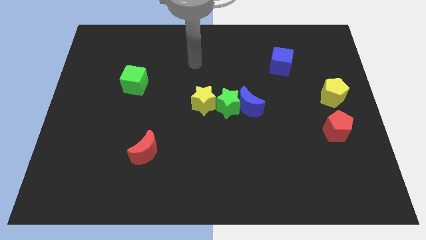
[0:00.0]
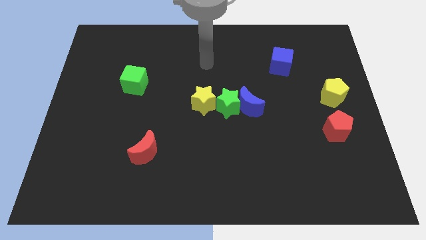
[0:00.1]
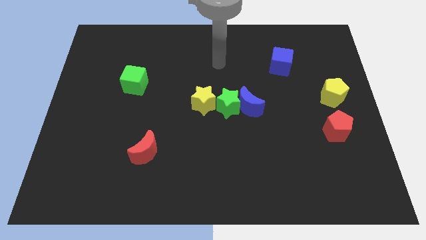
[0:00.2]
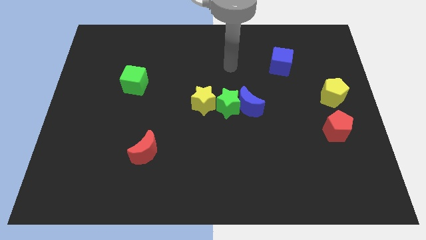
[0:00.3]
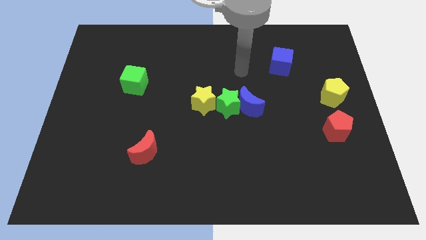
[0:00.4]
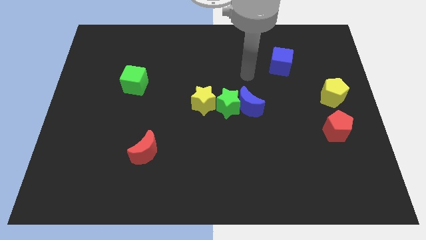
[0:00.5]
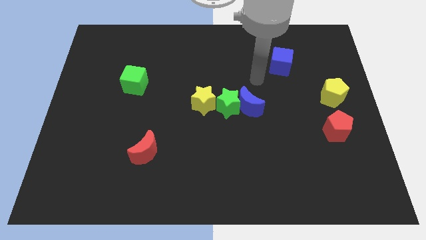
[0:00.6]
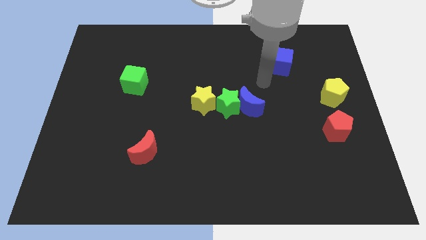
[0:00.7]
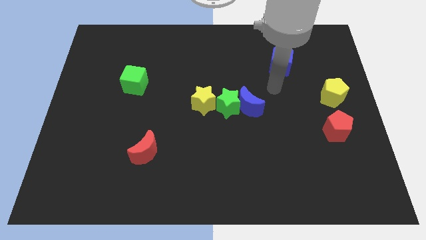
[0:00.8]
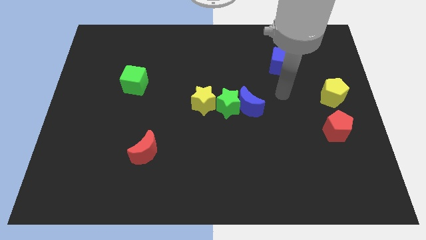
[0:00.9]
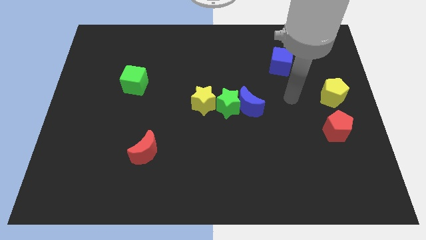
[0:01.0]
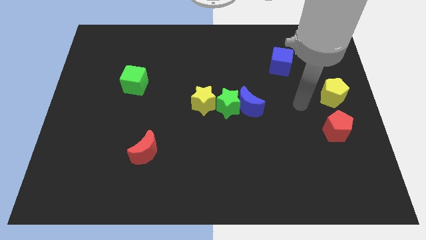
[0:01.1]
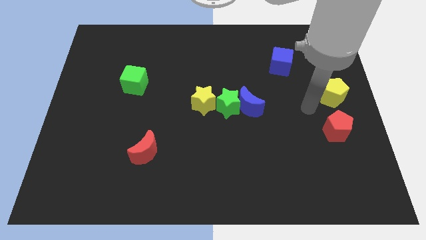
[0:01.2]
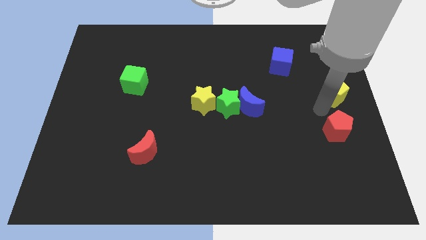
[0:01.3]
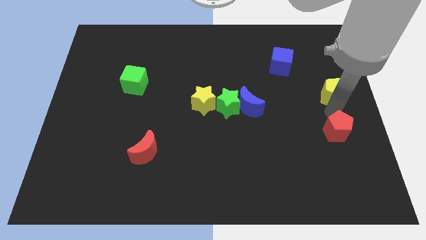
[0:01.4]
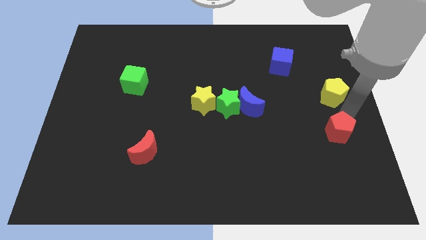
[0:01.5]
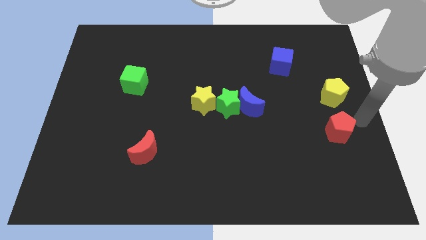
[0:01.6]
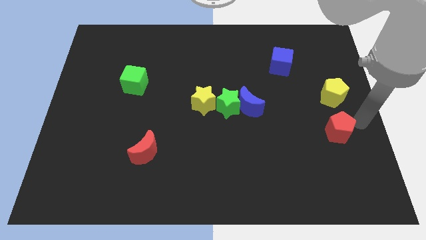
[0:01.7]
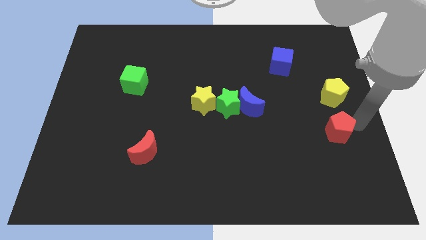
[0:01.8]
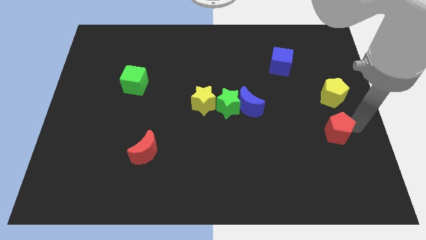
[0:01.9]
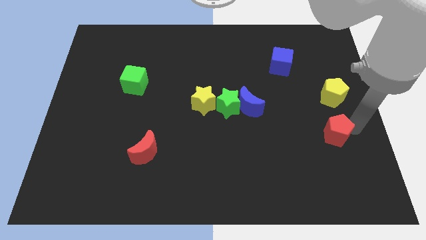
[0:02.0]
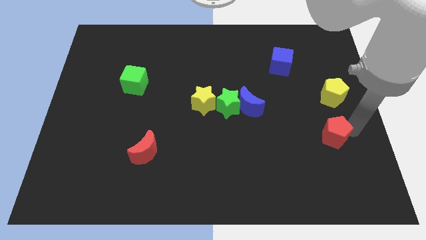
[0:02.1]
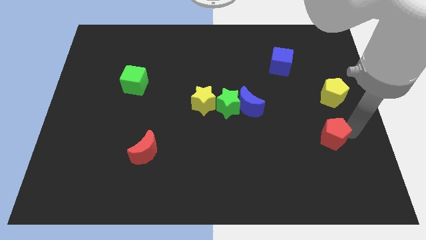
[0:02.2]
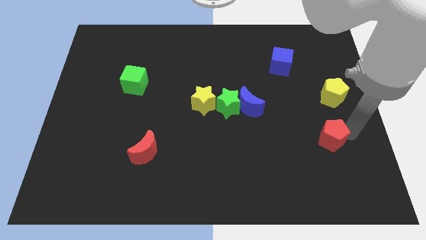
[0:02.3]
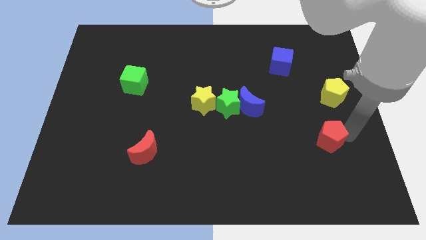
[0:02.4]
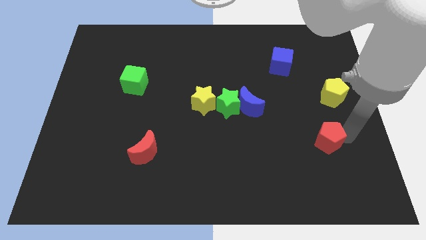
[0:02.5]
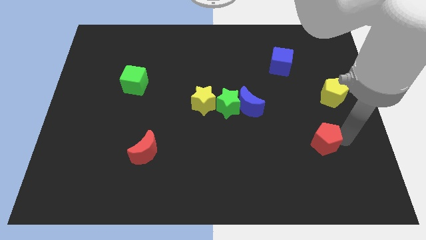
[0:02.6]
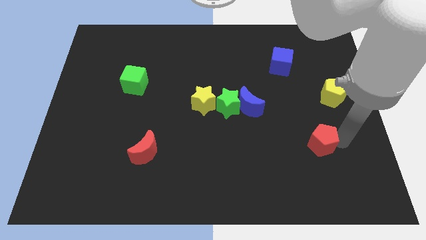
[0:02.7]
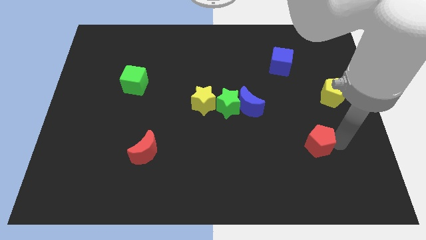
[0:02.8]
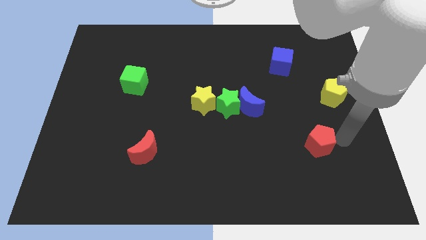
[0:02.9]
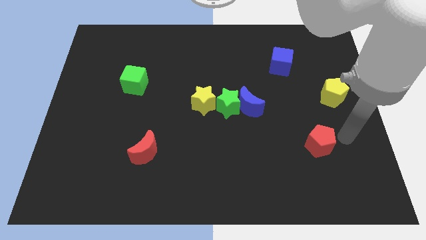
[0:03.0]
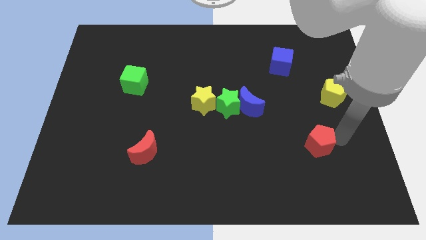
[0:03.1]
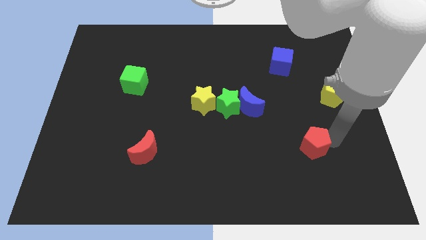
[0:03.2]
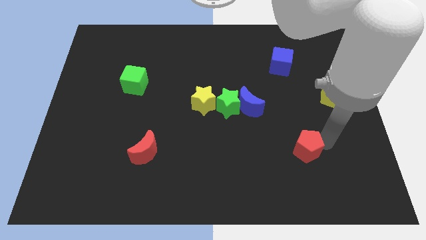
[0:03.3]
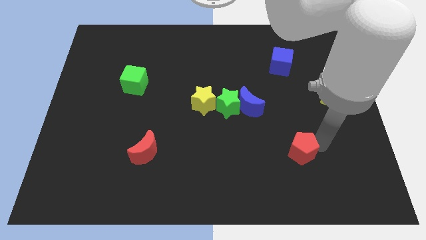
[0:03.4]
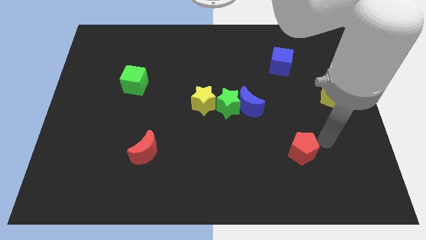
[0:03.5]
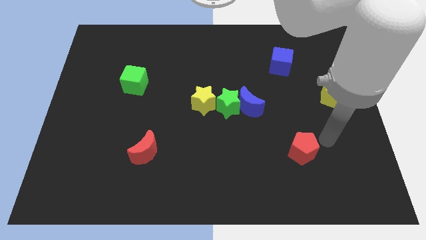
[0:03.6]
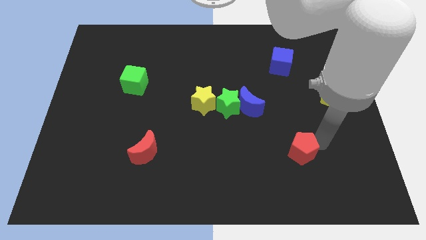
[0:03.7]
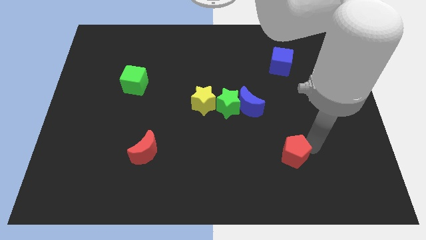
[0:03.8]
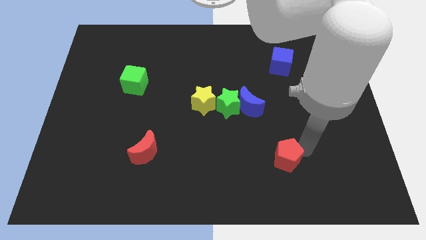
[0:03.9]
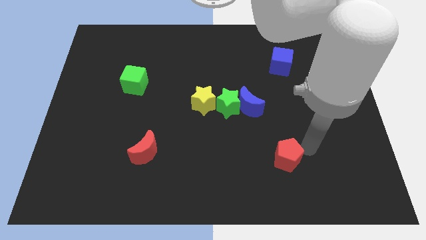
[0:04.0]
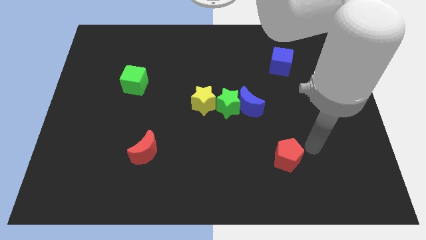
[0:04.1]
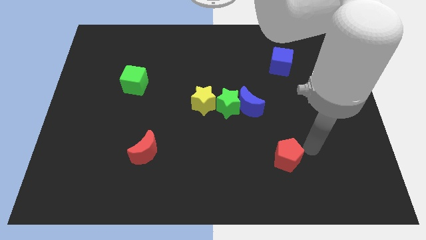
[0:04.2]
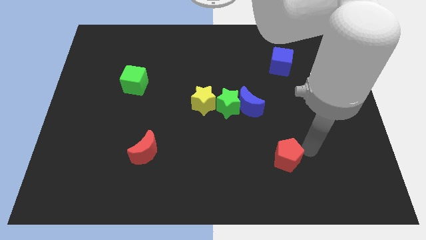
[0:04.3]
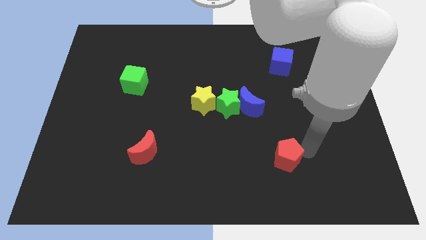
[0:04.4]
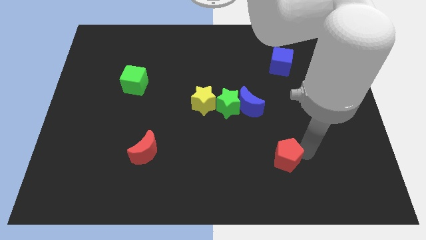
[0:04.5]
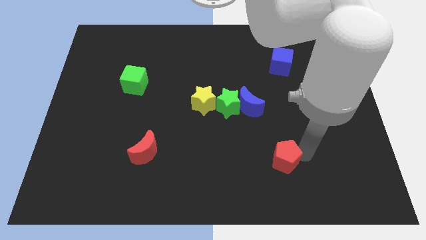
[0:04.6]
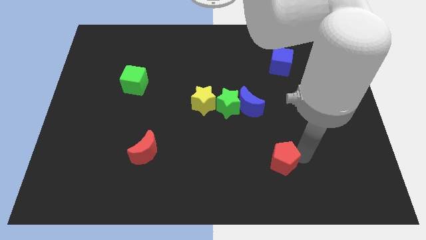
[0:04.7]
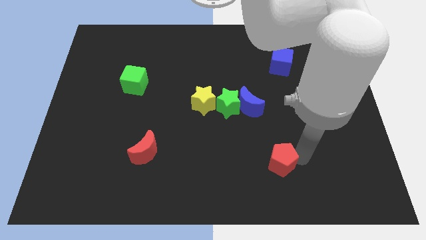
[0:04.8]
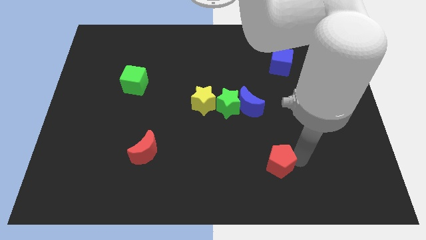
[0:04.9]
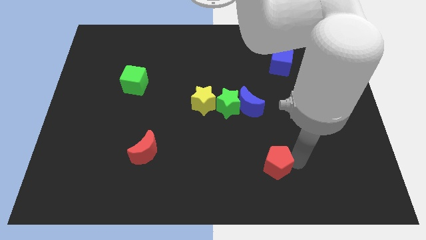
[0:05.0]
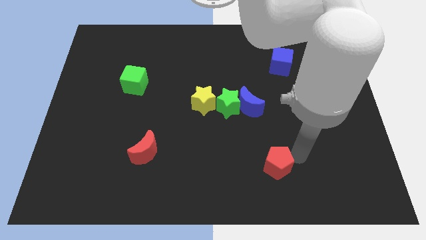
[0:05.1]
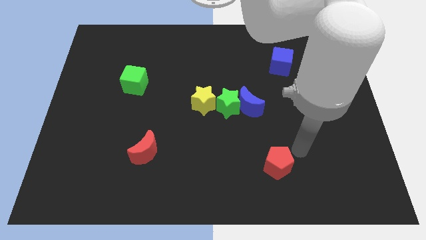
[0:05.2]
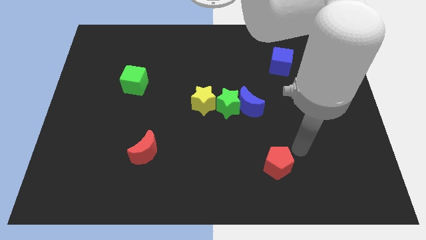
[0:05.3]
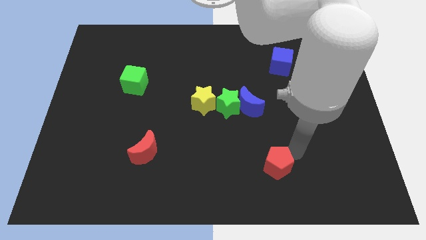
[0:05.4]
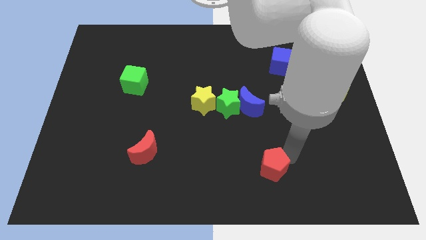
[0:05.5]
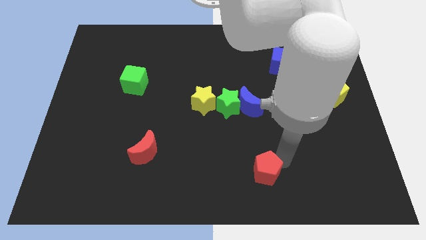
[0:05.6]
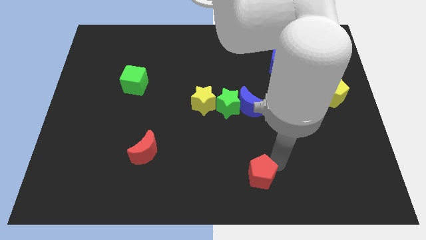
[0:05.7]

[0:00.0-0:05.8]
put the red pentagon to the bottom side
